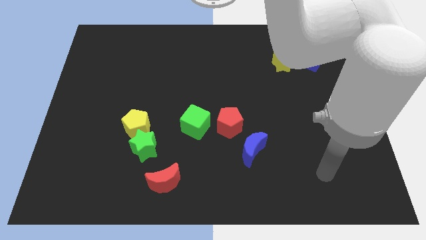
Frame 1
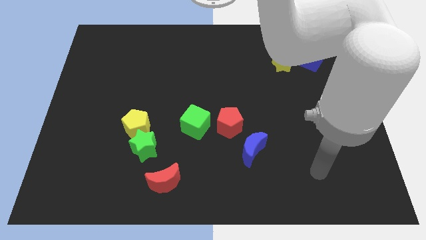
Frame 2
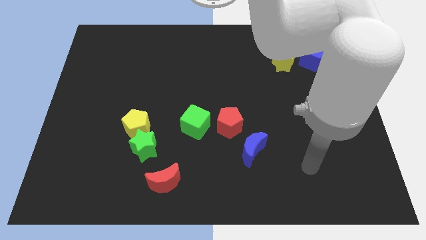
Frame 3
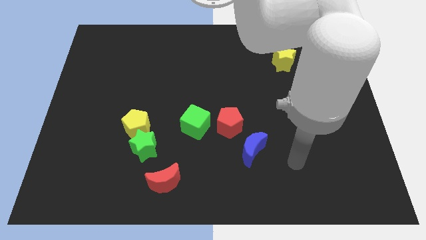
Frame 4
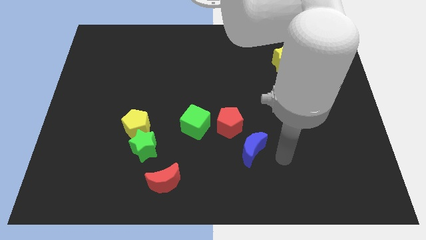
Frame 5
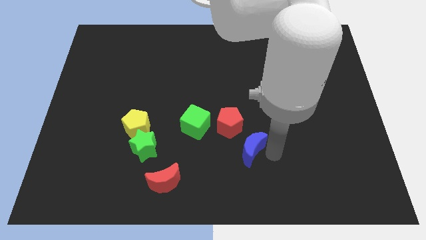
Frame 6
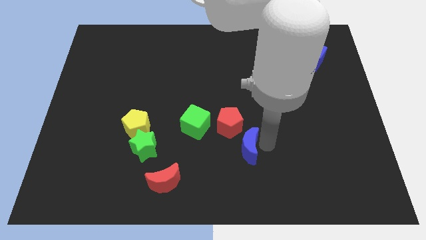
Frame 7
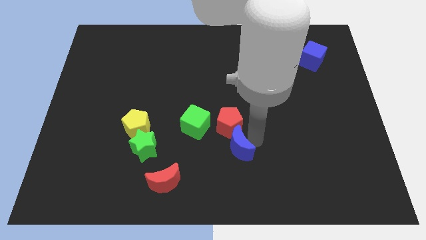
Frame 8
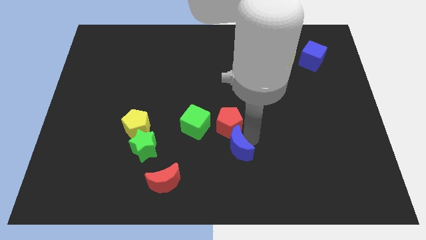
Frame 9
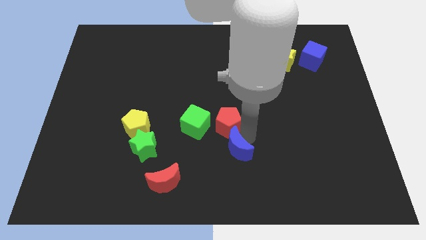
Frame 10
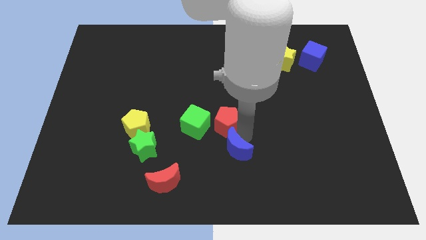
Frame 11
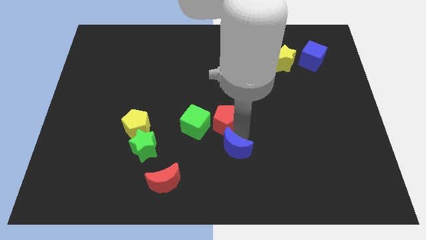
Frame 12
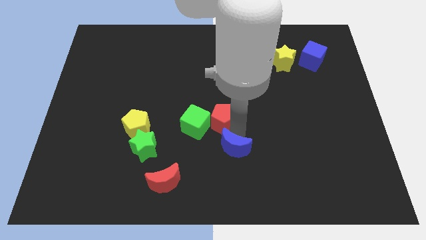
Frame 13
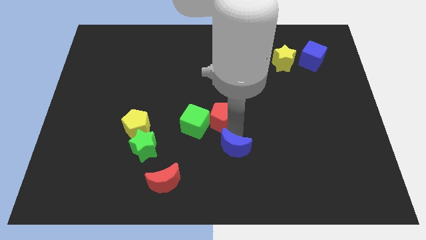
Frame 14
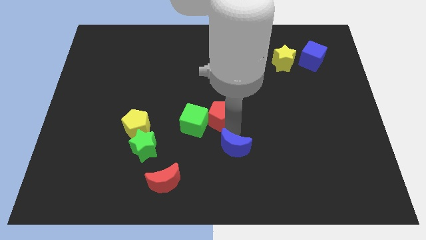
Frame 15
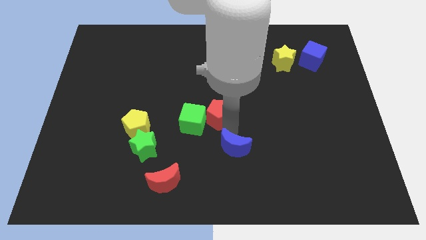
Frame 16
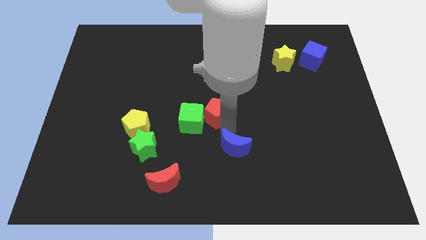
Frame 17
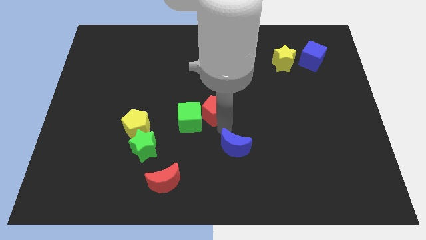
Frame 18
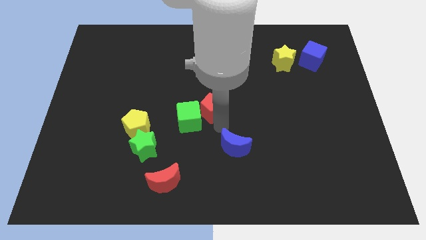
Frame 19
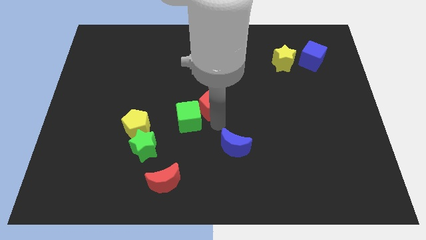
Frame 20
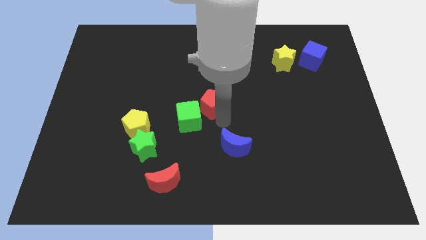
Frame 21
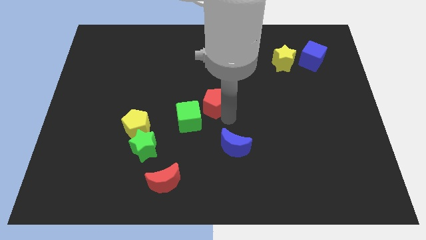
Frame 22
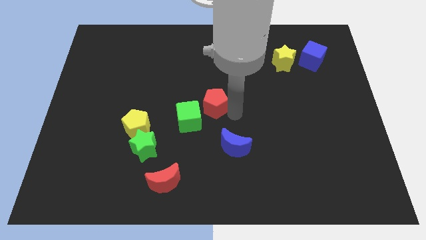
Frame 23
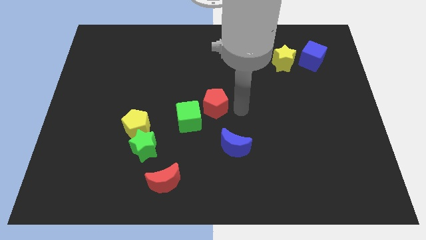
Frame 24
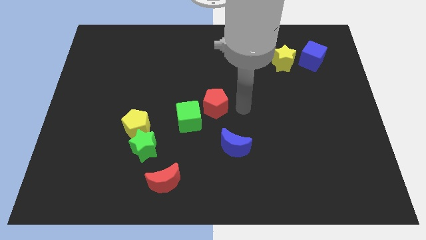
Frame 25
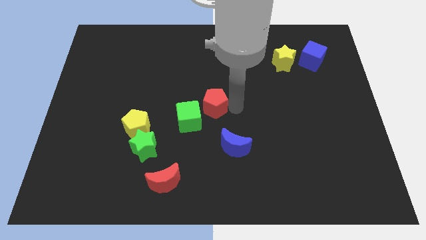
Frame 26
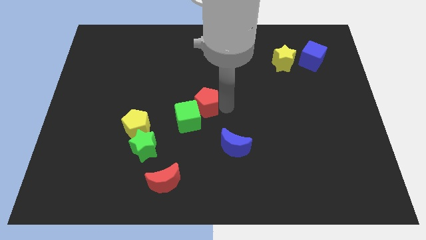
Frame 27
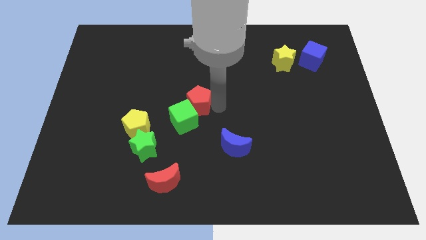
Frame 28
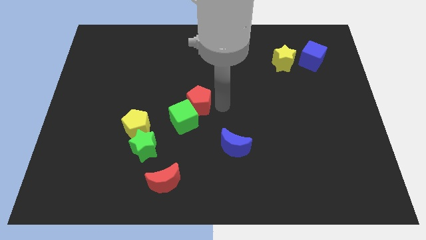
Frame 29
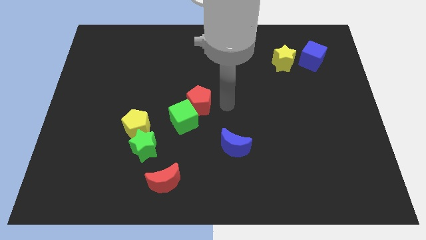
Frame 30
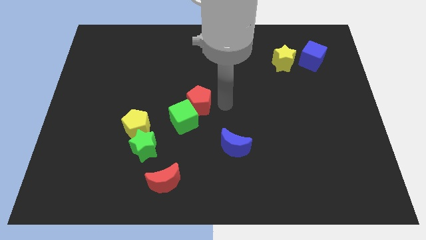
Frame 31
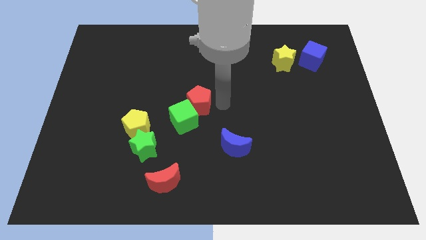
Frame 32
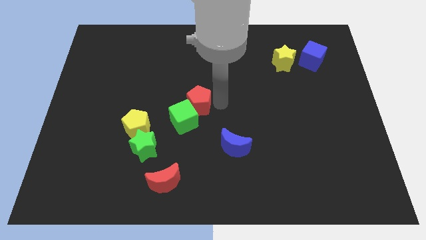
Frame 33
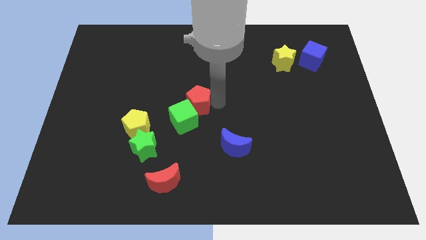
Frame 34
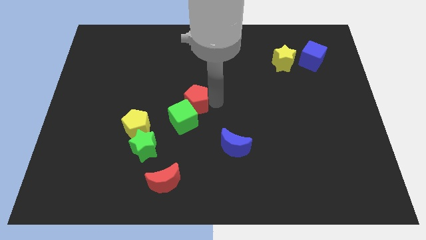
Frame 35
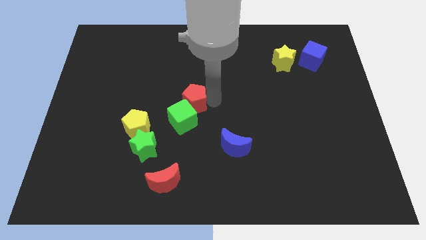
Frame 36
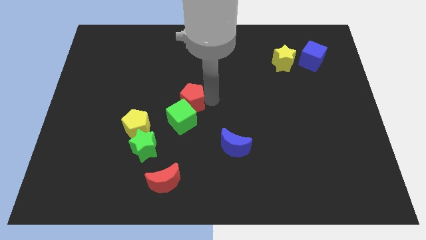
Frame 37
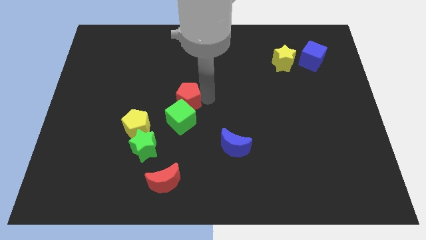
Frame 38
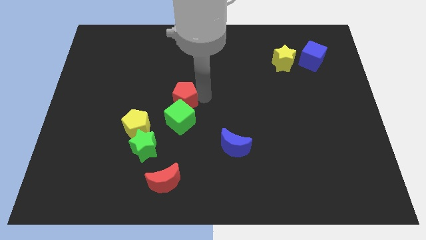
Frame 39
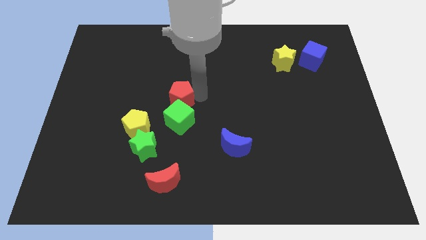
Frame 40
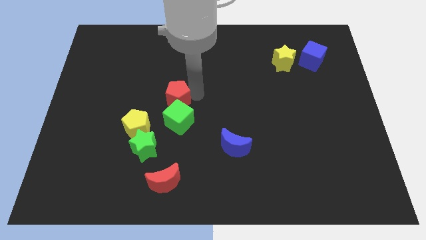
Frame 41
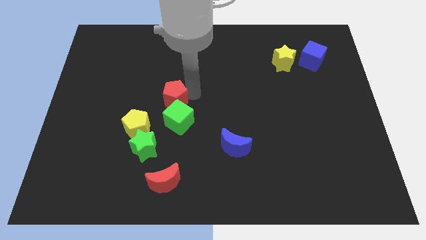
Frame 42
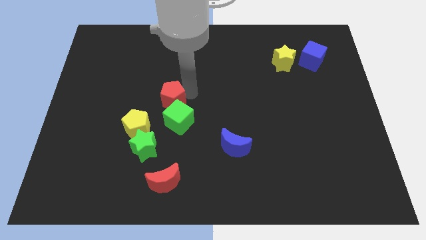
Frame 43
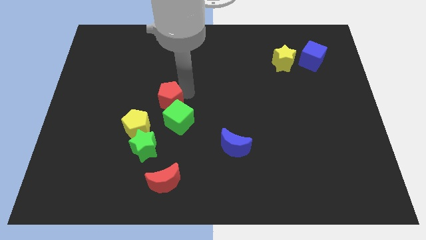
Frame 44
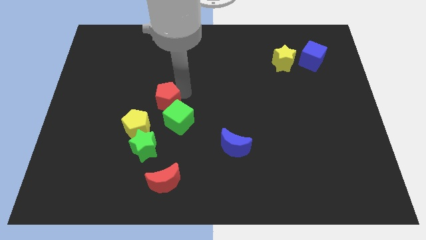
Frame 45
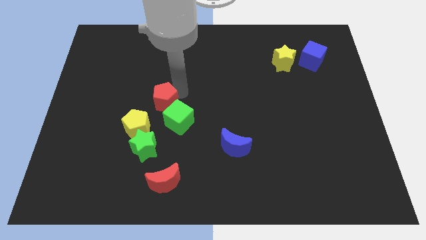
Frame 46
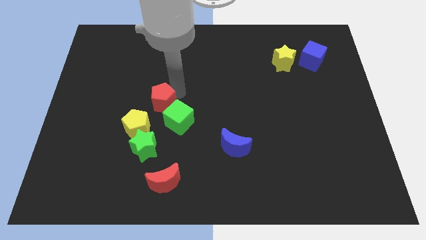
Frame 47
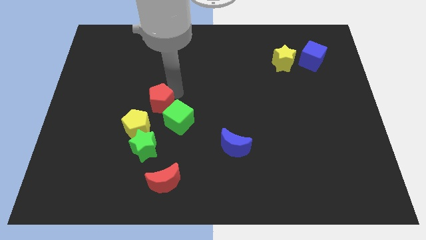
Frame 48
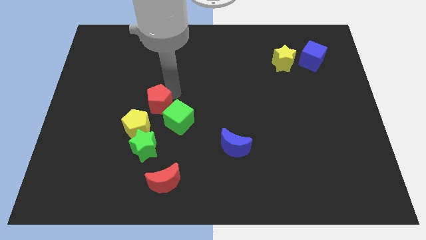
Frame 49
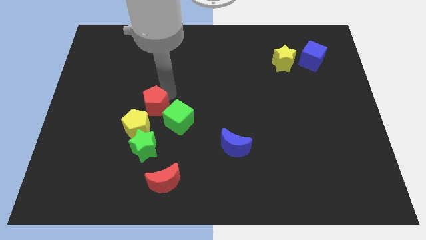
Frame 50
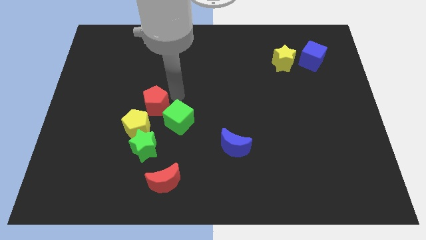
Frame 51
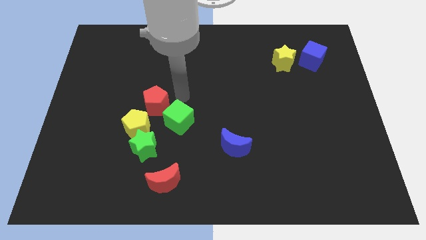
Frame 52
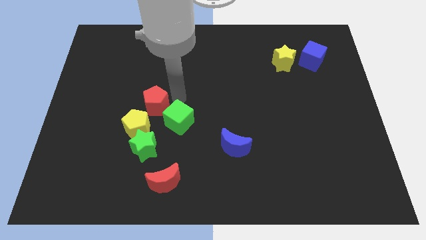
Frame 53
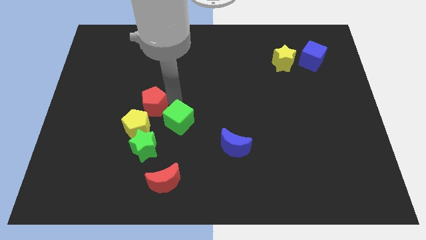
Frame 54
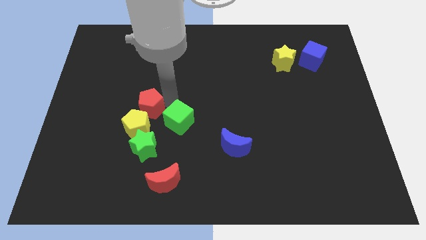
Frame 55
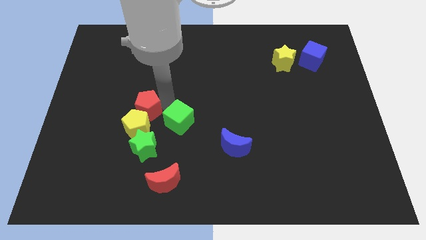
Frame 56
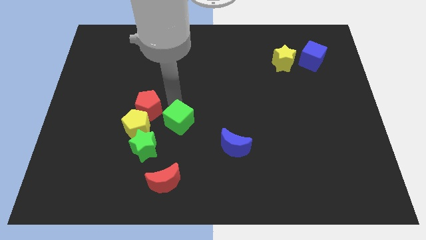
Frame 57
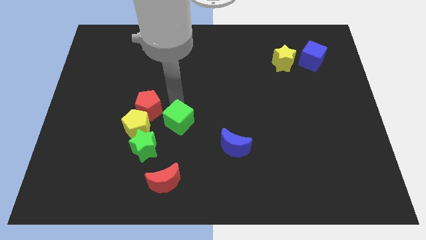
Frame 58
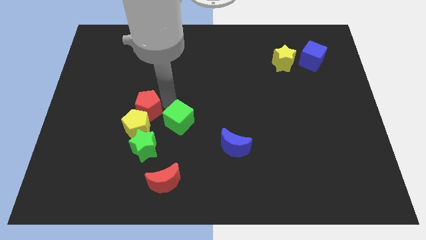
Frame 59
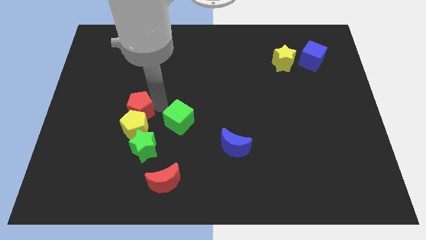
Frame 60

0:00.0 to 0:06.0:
move the red pentagon left

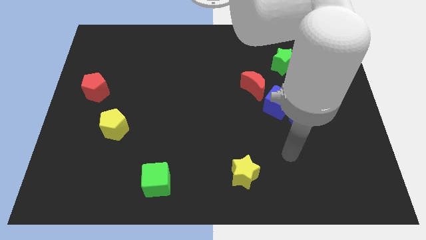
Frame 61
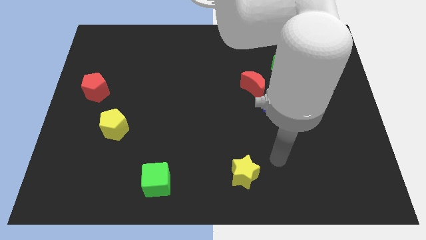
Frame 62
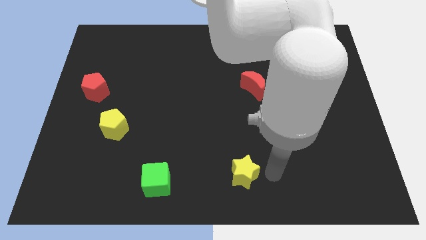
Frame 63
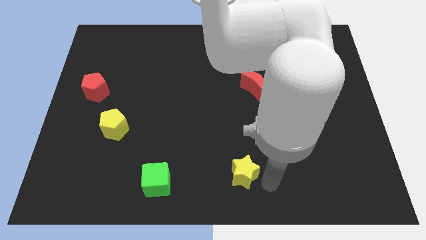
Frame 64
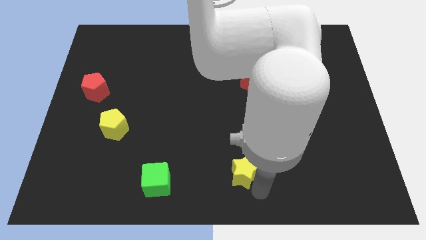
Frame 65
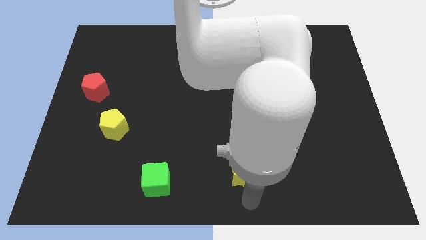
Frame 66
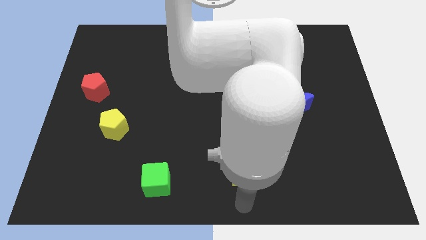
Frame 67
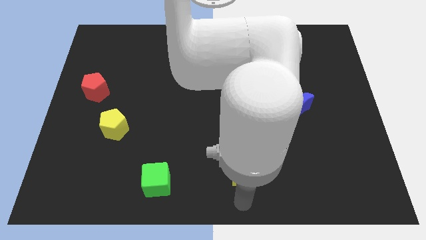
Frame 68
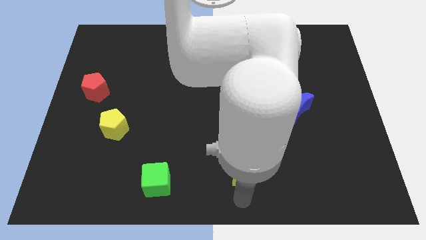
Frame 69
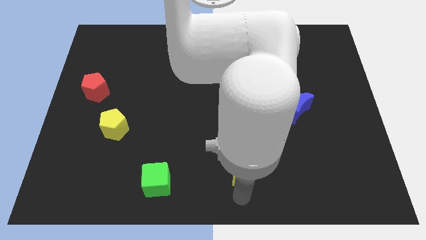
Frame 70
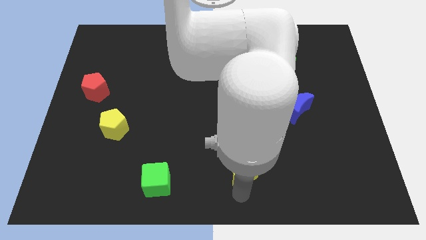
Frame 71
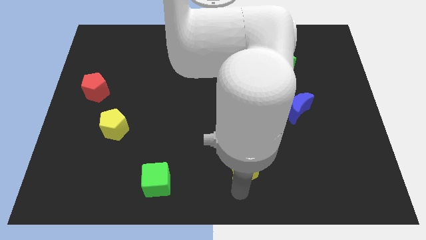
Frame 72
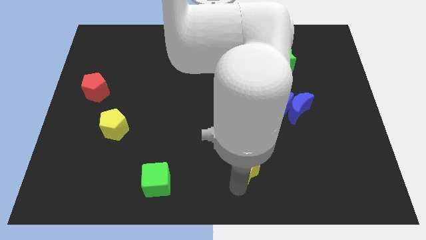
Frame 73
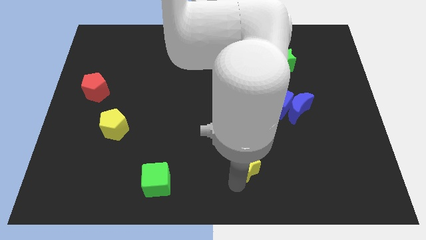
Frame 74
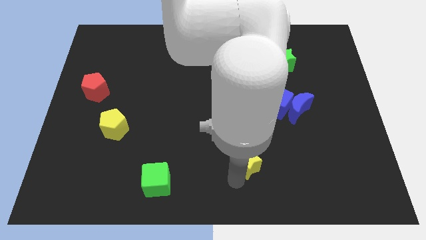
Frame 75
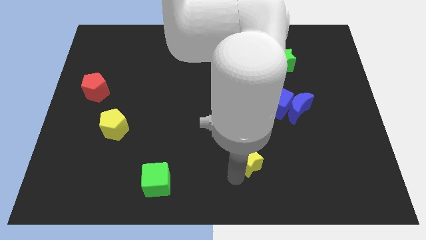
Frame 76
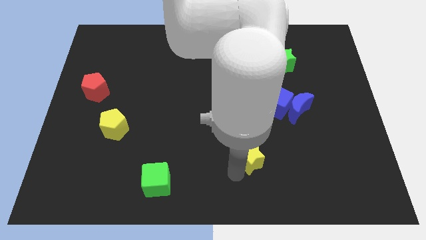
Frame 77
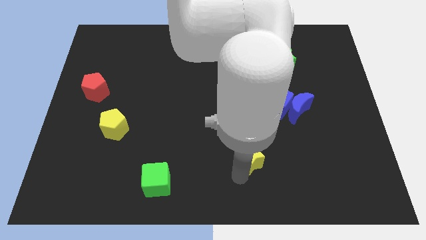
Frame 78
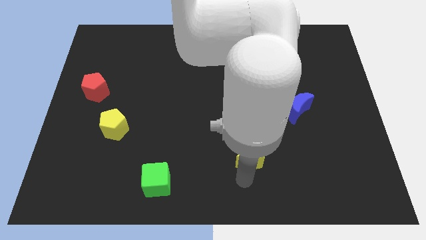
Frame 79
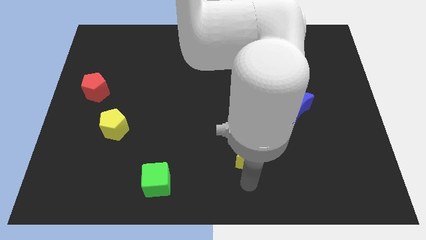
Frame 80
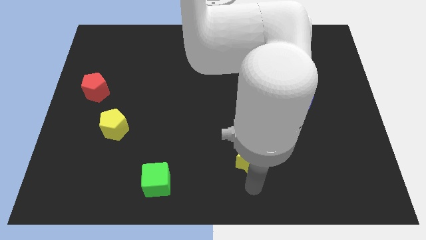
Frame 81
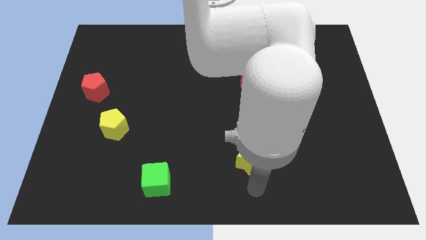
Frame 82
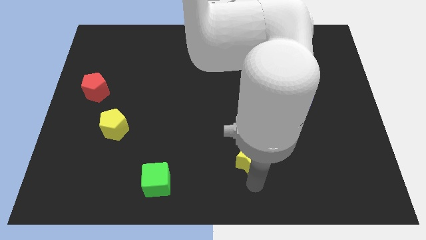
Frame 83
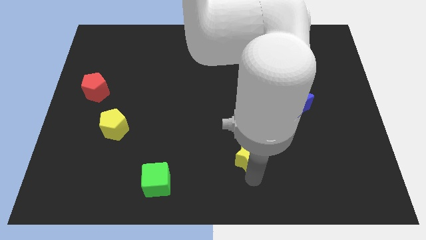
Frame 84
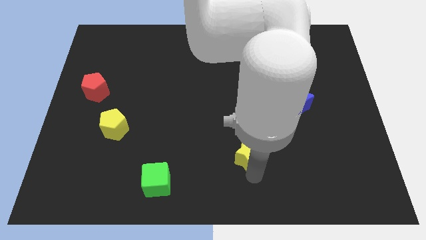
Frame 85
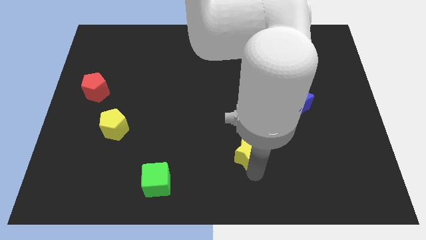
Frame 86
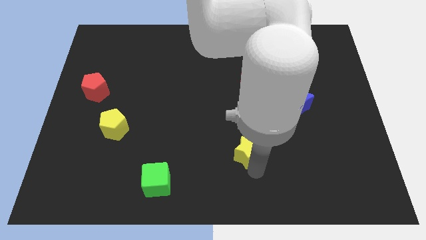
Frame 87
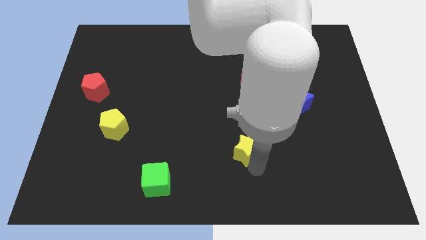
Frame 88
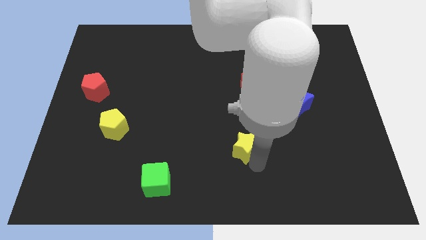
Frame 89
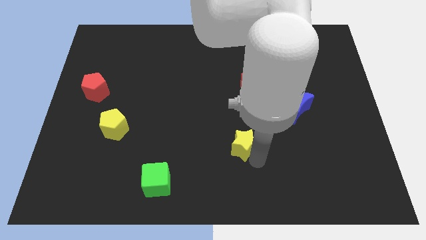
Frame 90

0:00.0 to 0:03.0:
slide the yellow star a bit up
